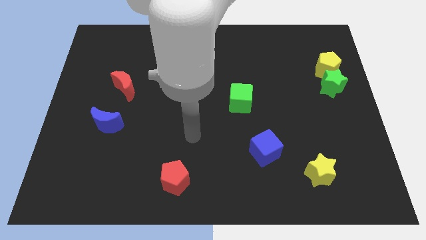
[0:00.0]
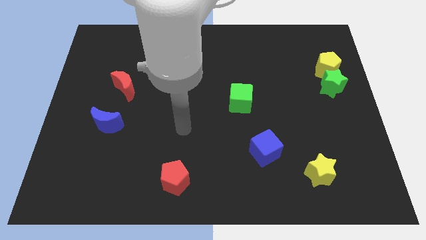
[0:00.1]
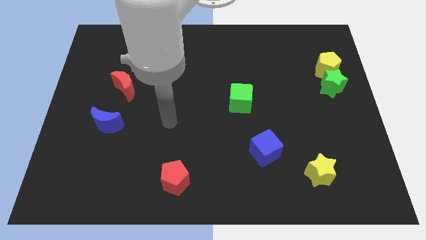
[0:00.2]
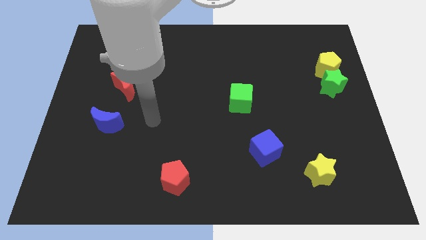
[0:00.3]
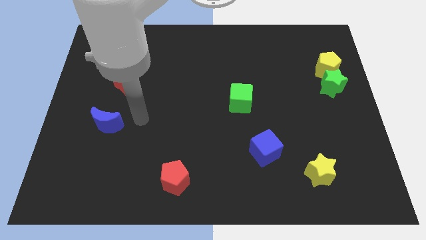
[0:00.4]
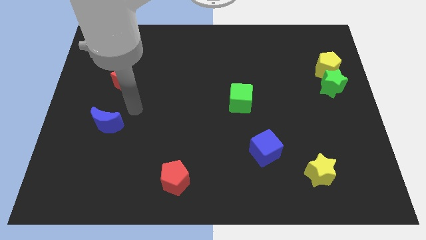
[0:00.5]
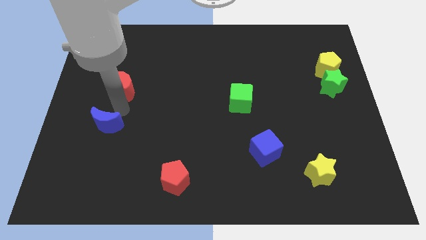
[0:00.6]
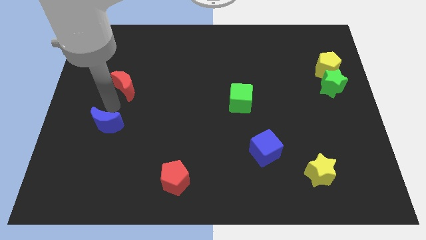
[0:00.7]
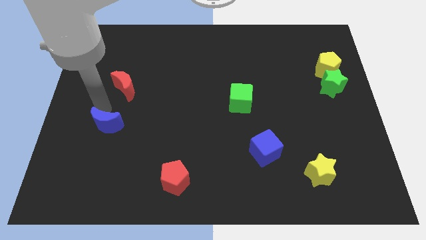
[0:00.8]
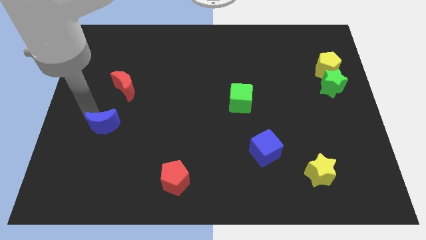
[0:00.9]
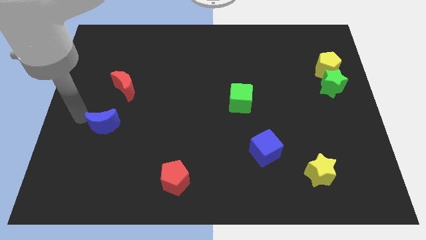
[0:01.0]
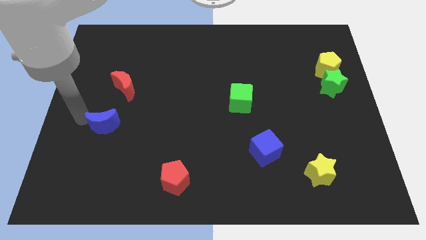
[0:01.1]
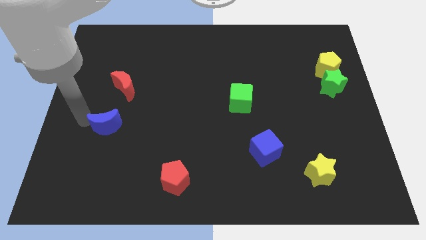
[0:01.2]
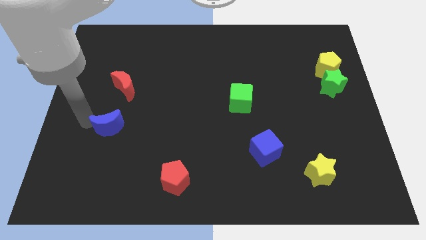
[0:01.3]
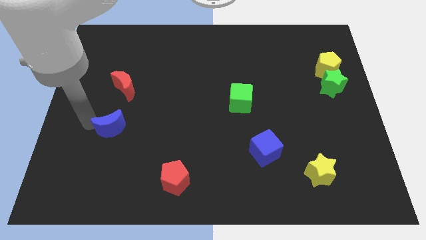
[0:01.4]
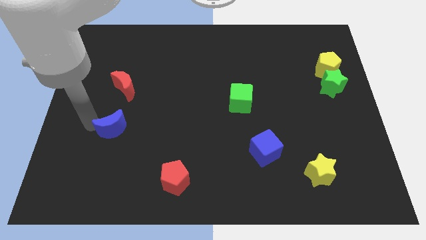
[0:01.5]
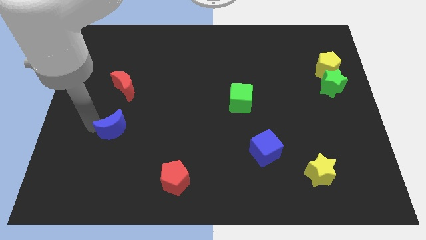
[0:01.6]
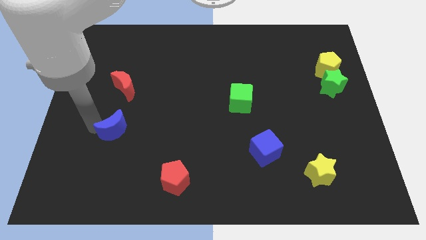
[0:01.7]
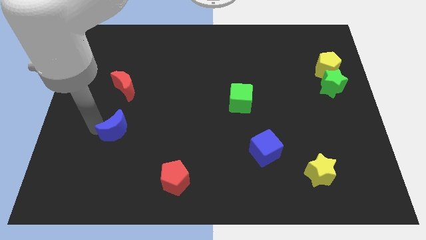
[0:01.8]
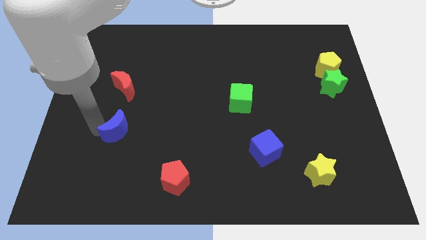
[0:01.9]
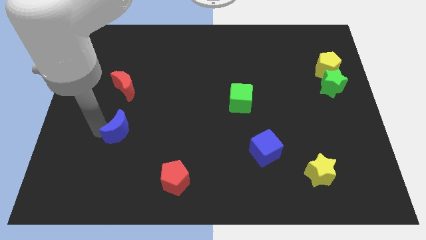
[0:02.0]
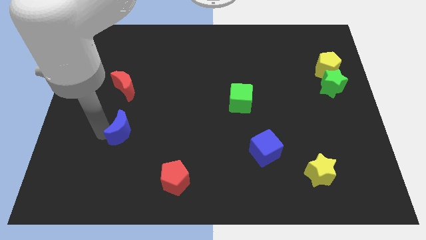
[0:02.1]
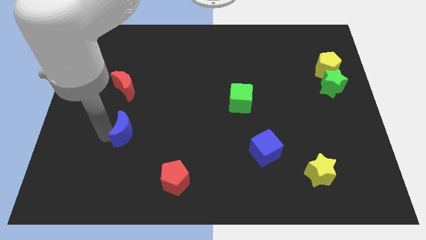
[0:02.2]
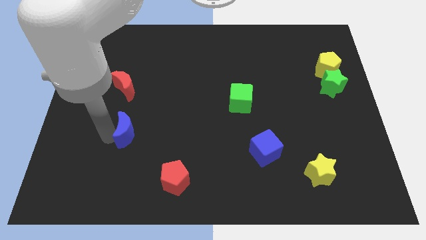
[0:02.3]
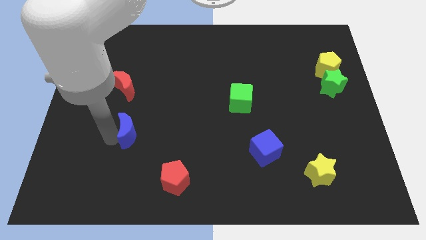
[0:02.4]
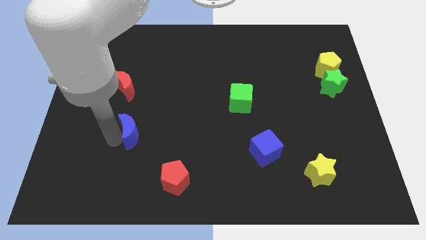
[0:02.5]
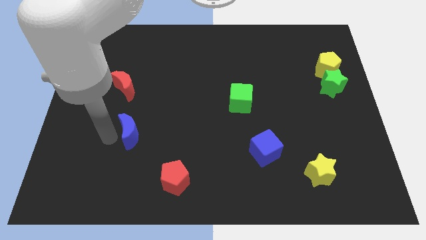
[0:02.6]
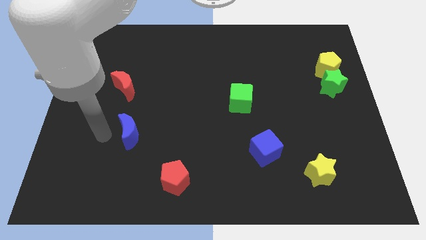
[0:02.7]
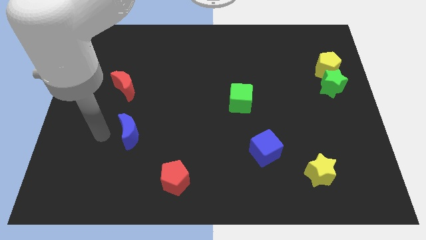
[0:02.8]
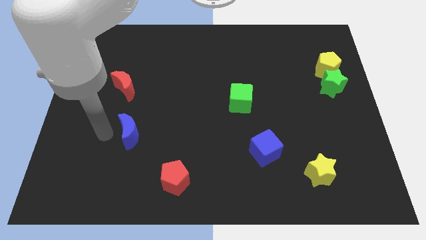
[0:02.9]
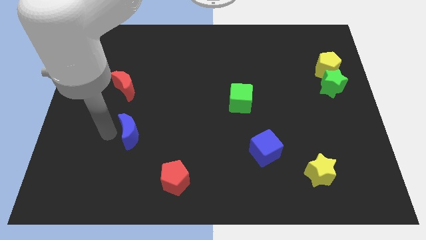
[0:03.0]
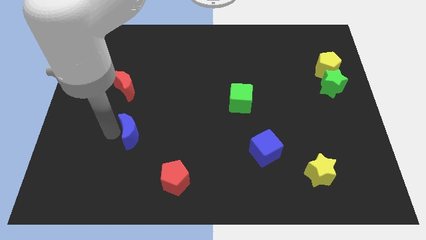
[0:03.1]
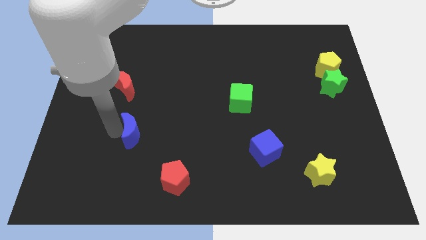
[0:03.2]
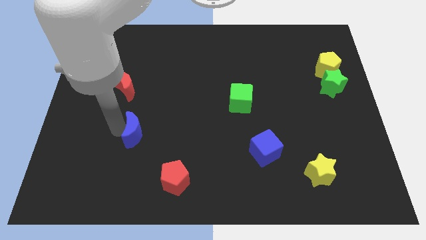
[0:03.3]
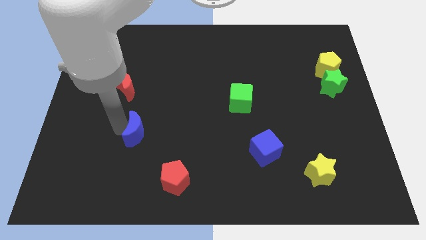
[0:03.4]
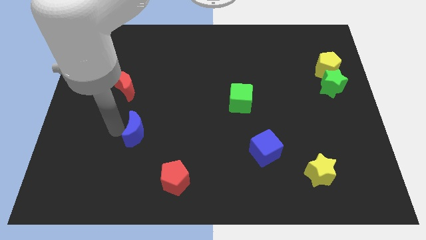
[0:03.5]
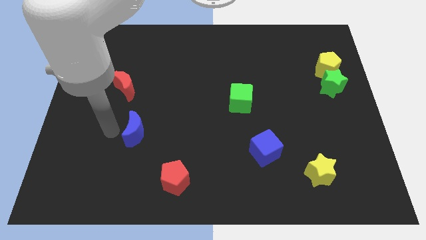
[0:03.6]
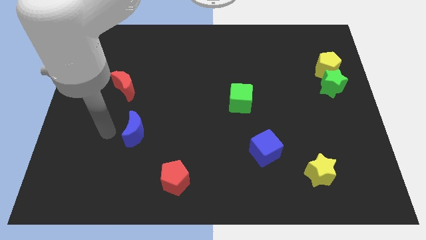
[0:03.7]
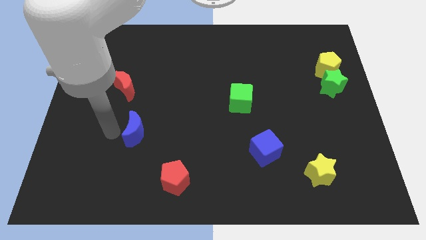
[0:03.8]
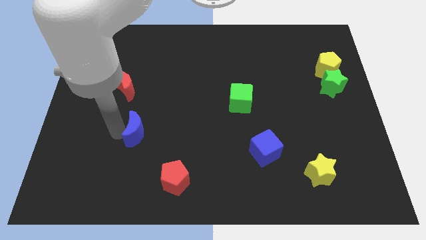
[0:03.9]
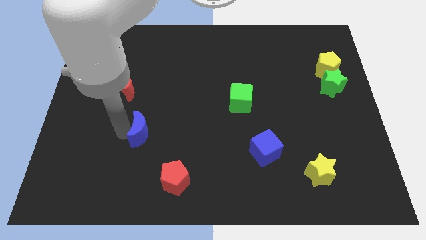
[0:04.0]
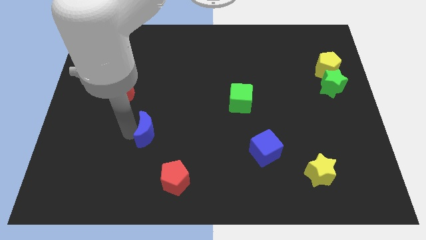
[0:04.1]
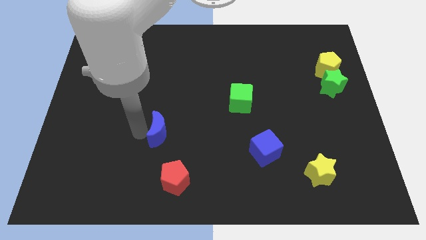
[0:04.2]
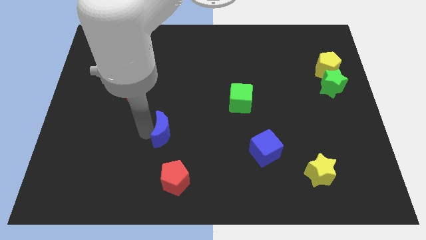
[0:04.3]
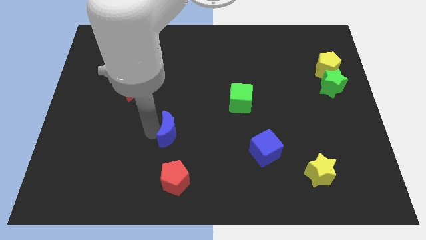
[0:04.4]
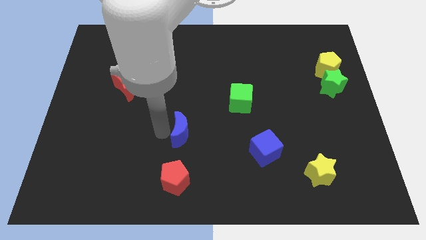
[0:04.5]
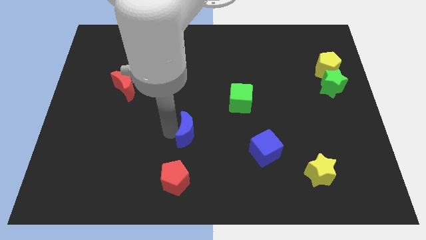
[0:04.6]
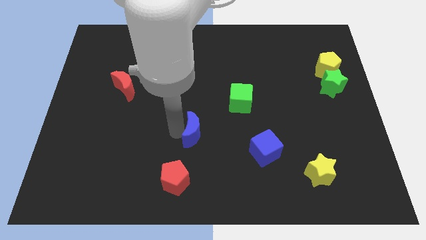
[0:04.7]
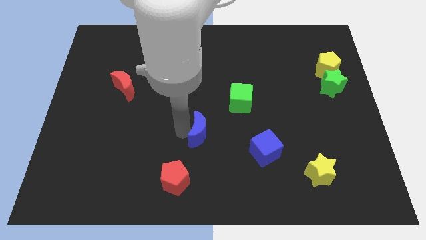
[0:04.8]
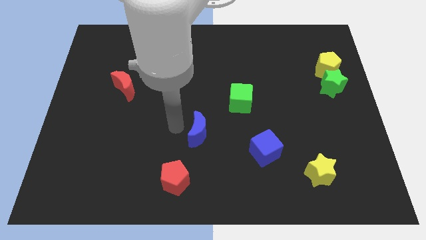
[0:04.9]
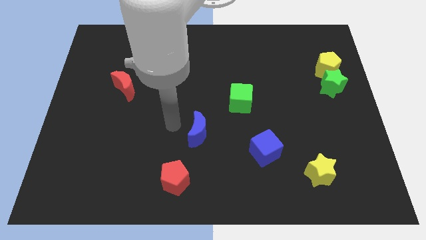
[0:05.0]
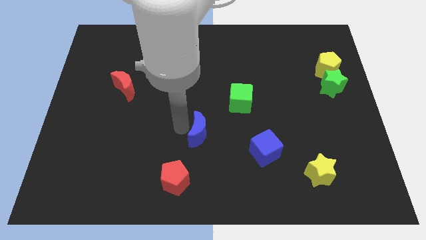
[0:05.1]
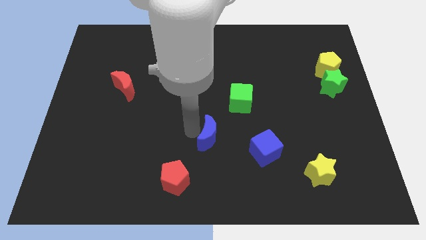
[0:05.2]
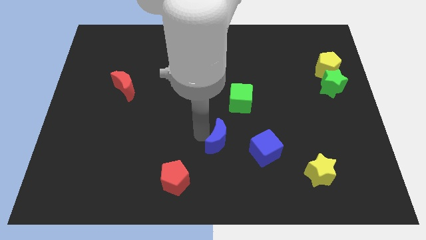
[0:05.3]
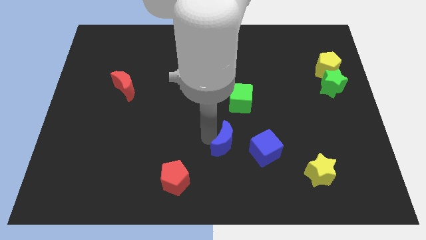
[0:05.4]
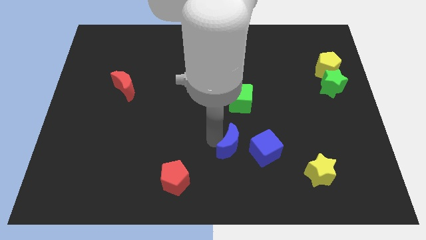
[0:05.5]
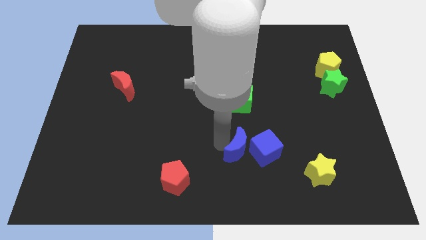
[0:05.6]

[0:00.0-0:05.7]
move the blue moon close to the blue cube

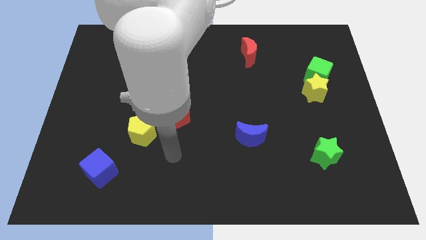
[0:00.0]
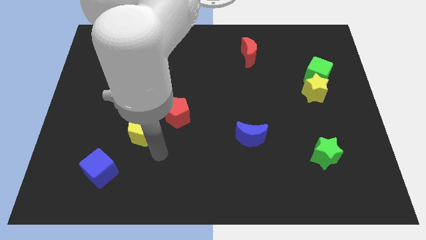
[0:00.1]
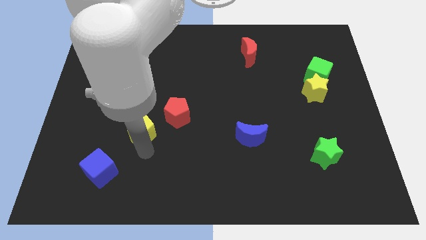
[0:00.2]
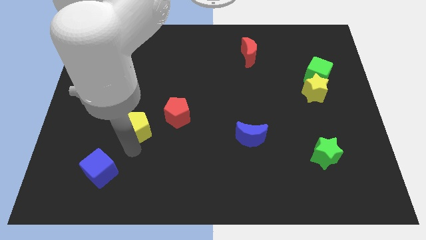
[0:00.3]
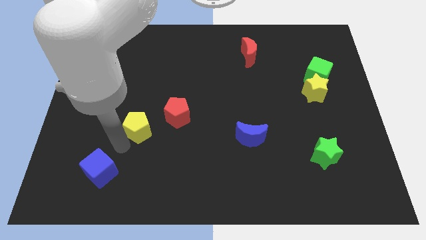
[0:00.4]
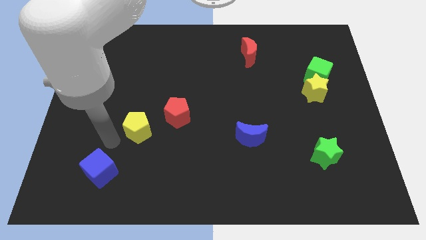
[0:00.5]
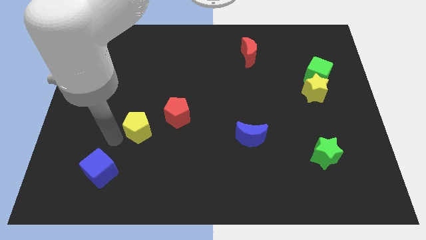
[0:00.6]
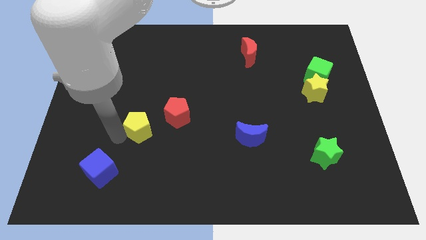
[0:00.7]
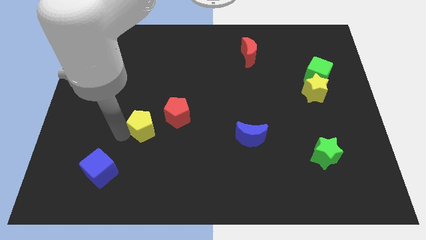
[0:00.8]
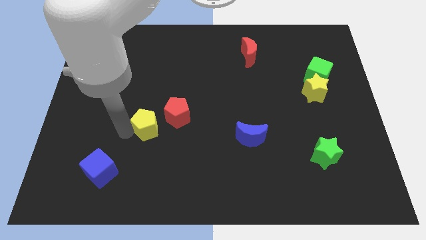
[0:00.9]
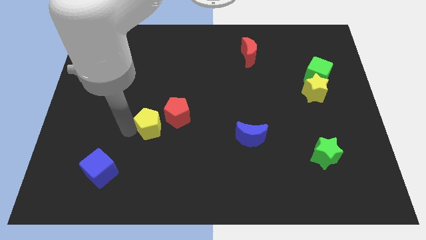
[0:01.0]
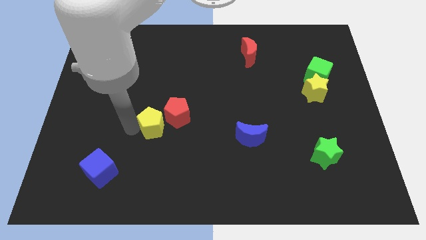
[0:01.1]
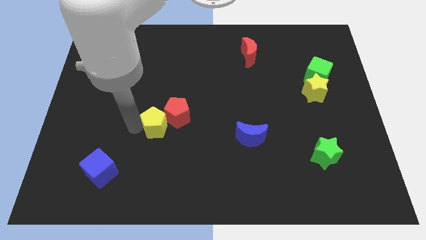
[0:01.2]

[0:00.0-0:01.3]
push the yellow pentagon next to the red pentagon
